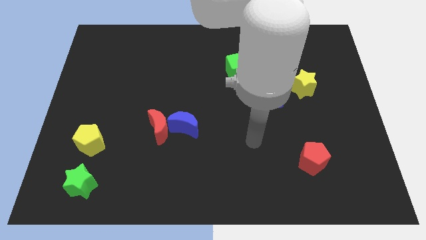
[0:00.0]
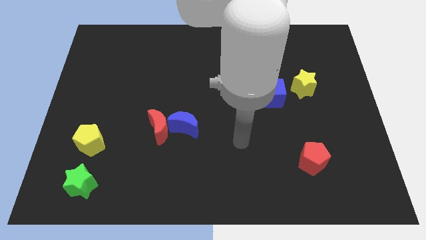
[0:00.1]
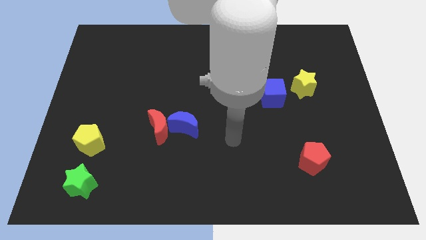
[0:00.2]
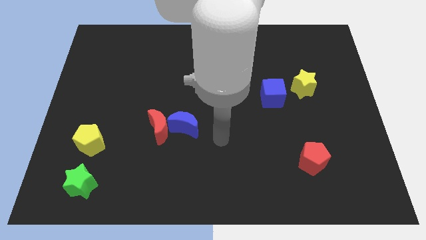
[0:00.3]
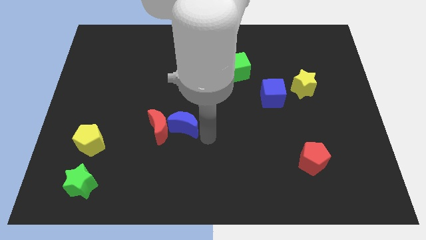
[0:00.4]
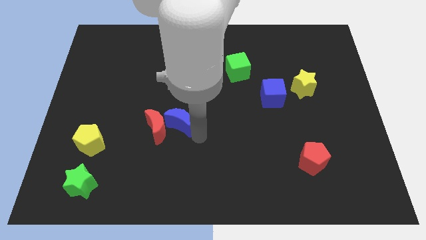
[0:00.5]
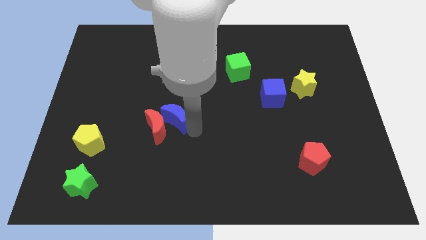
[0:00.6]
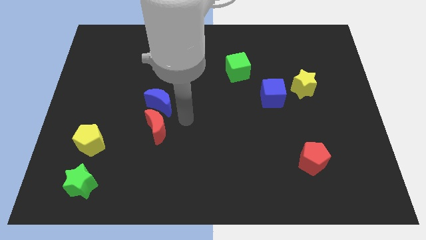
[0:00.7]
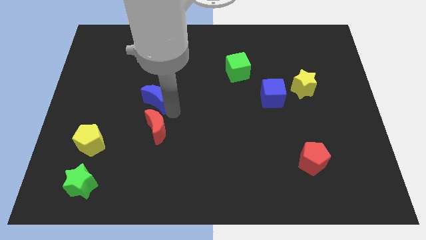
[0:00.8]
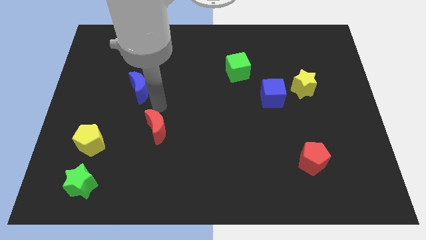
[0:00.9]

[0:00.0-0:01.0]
separate the red moon from the blue moon

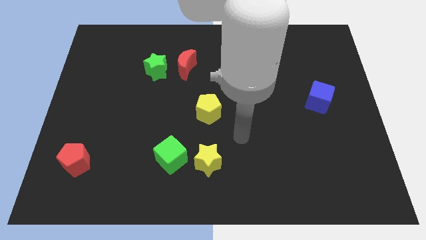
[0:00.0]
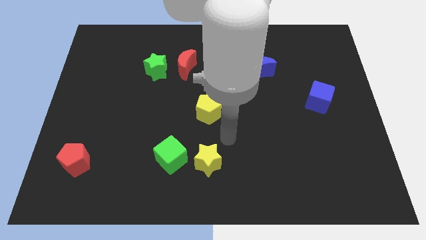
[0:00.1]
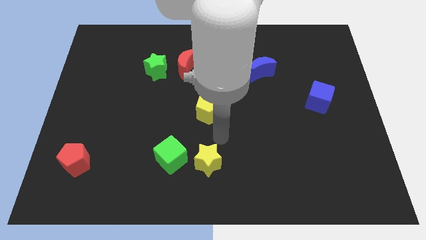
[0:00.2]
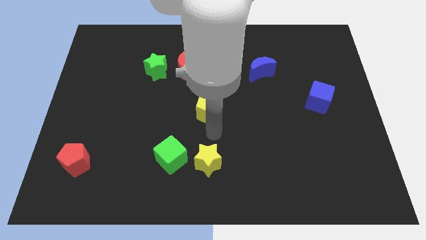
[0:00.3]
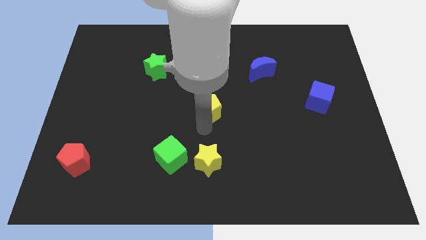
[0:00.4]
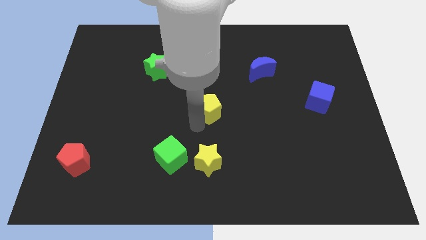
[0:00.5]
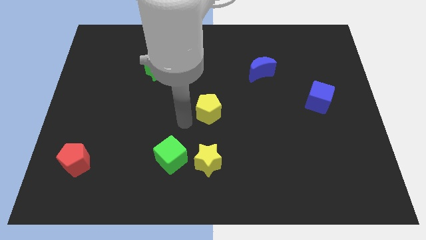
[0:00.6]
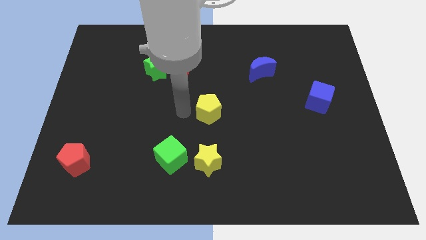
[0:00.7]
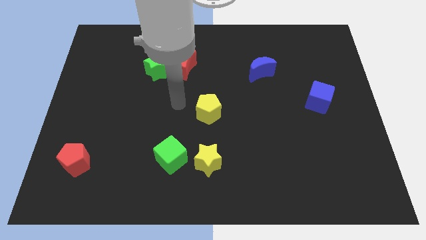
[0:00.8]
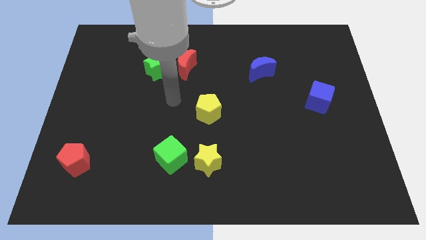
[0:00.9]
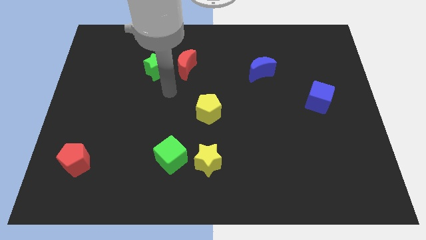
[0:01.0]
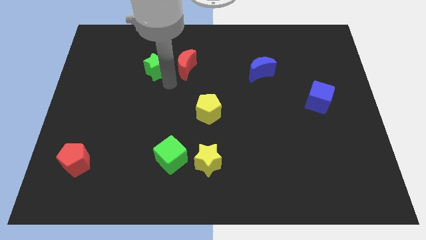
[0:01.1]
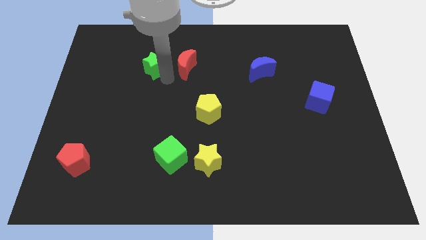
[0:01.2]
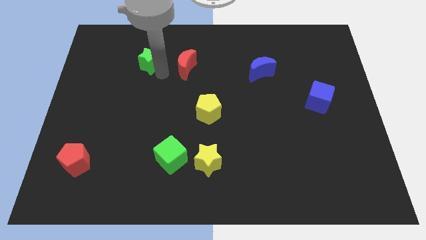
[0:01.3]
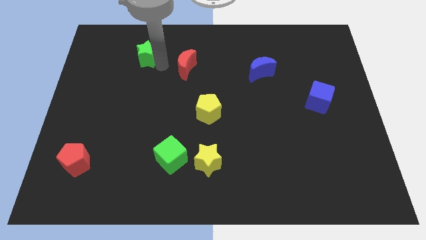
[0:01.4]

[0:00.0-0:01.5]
separate the red moon from the green star

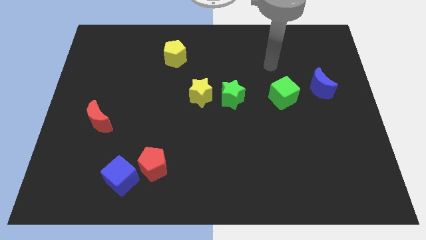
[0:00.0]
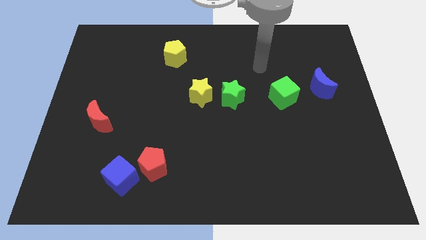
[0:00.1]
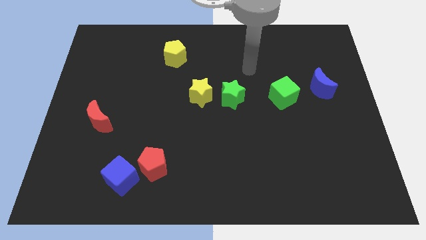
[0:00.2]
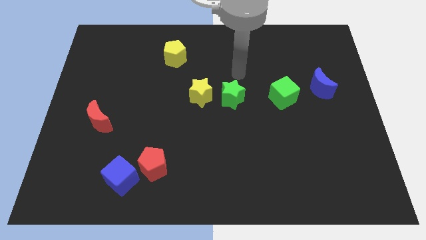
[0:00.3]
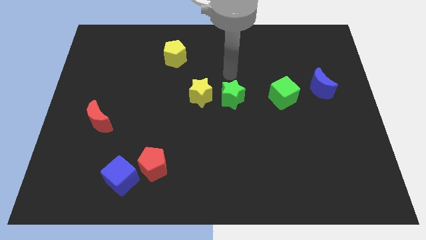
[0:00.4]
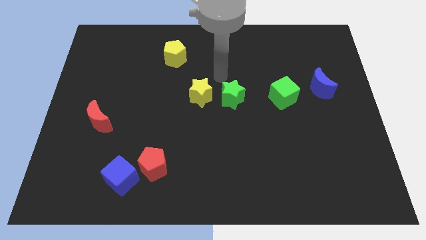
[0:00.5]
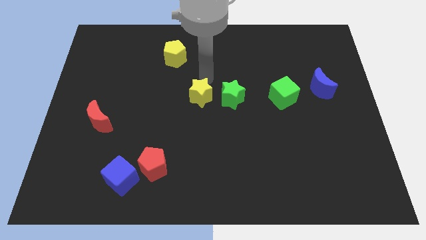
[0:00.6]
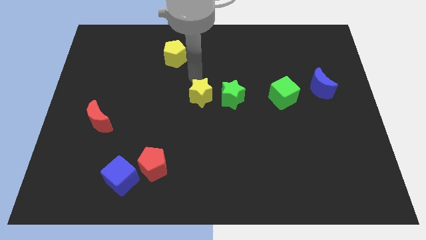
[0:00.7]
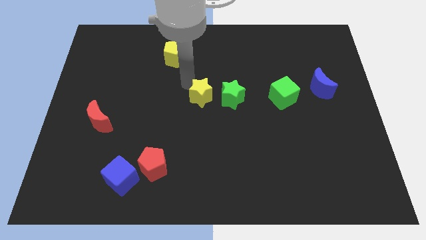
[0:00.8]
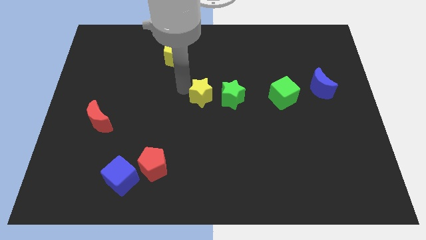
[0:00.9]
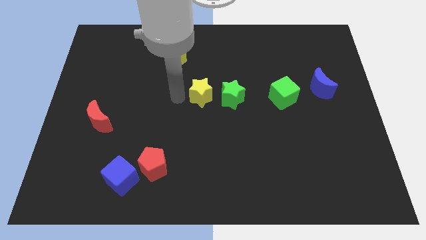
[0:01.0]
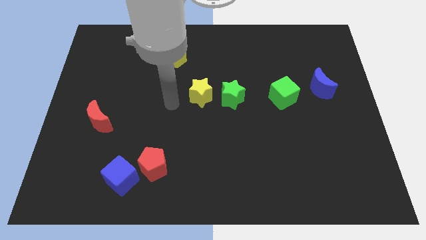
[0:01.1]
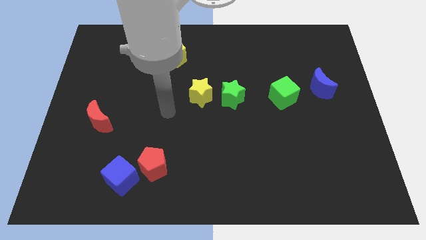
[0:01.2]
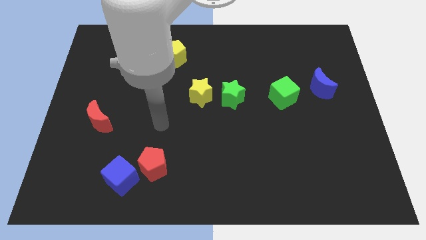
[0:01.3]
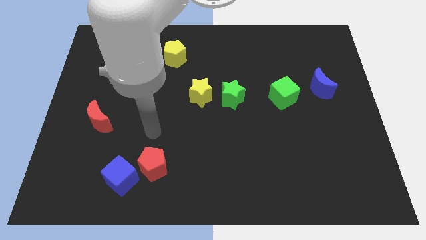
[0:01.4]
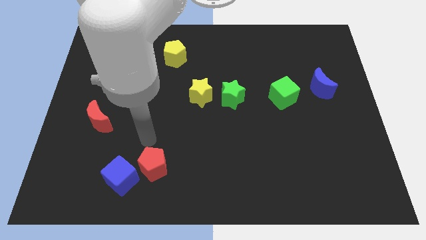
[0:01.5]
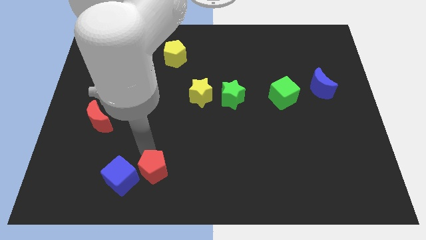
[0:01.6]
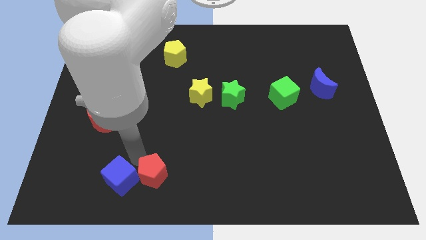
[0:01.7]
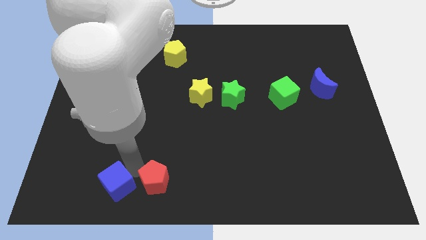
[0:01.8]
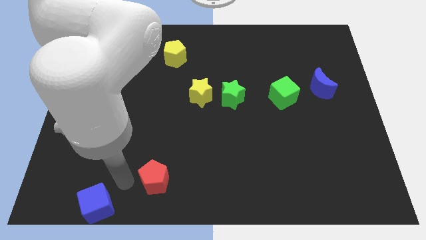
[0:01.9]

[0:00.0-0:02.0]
move the red pentagon away from the blue cube

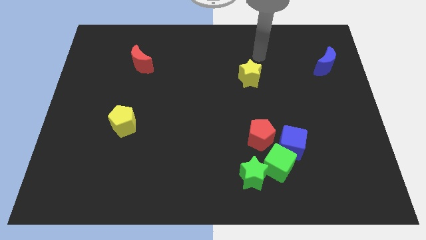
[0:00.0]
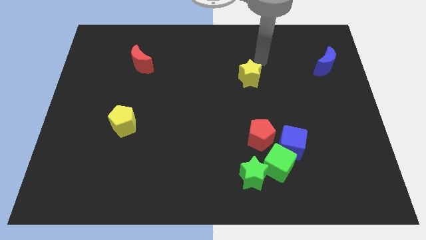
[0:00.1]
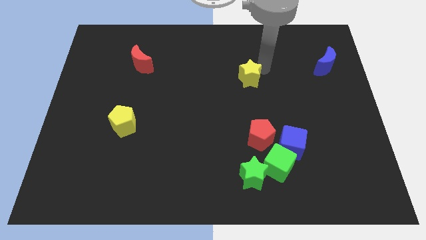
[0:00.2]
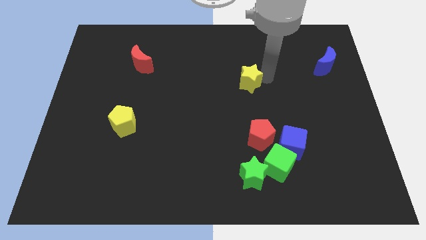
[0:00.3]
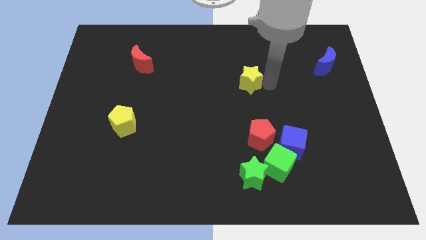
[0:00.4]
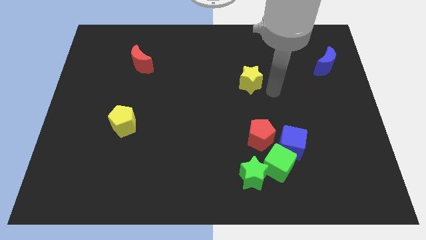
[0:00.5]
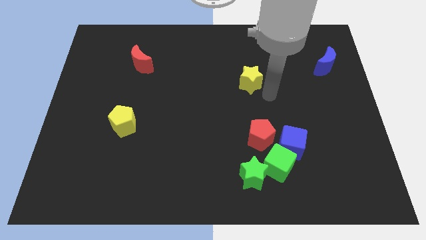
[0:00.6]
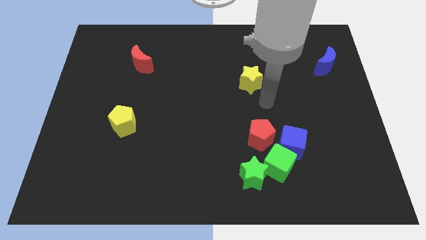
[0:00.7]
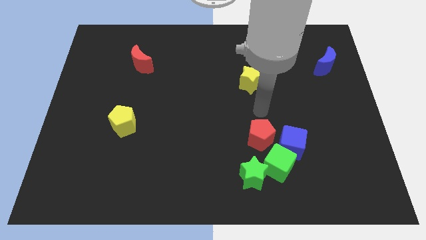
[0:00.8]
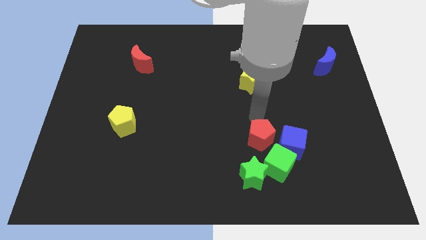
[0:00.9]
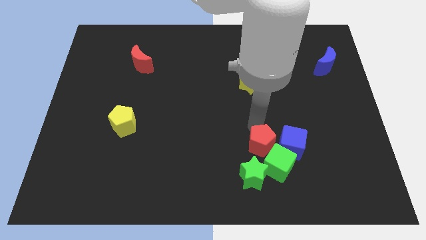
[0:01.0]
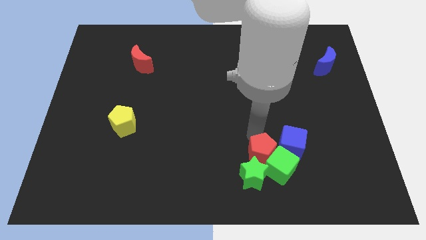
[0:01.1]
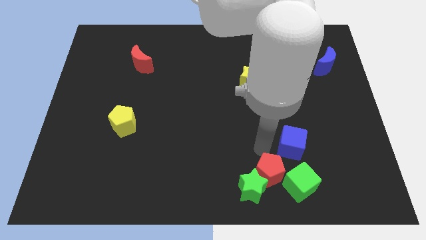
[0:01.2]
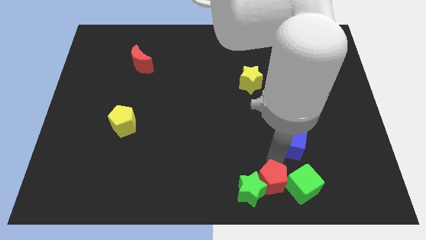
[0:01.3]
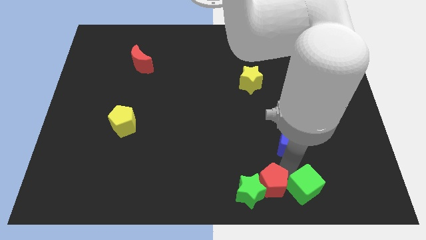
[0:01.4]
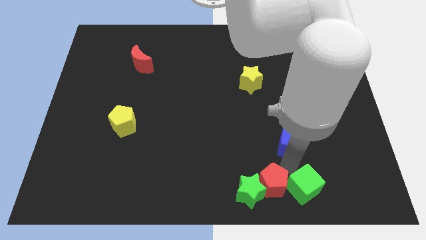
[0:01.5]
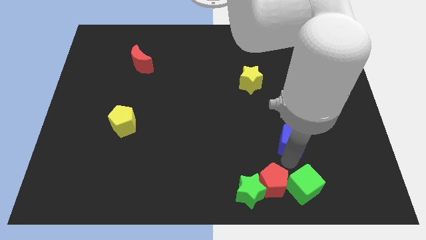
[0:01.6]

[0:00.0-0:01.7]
separate the blue cube from the green cube and red pentagon

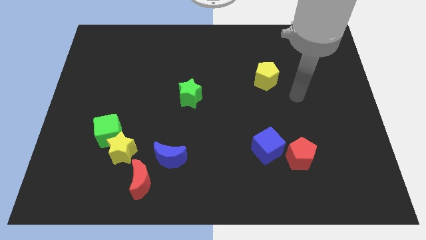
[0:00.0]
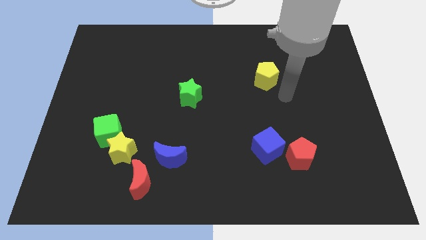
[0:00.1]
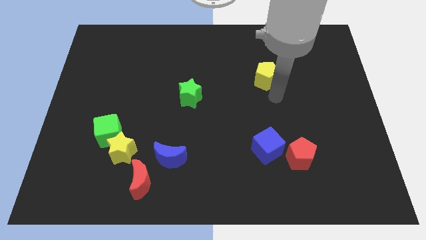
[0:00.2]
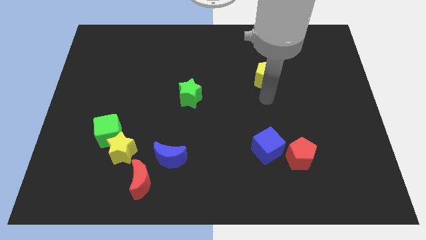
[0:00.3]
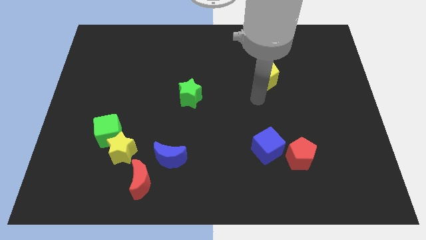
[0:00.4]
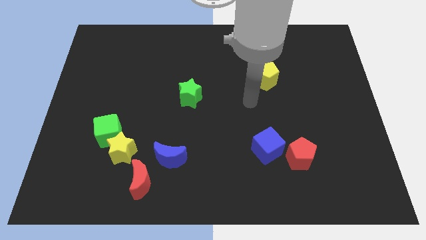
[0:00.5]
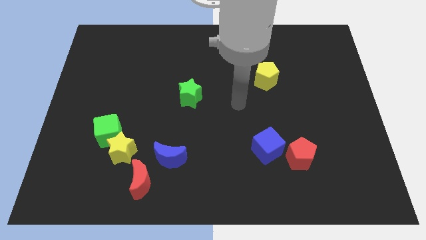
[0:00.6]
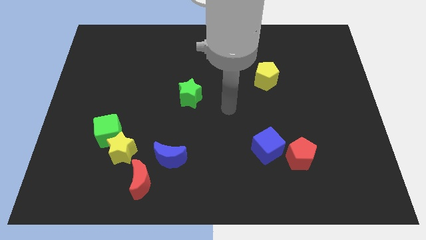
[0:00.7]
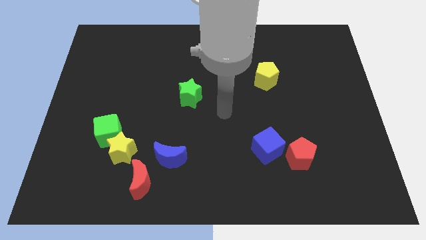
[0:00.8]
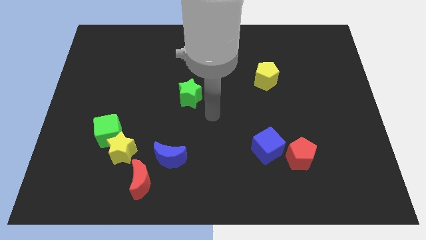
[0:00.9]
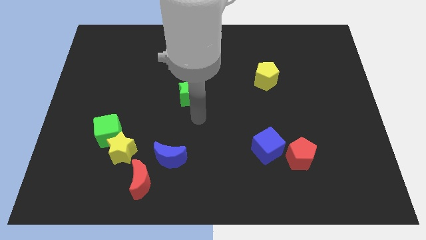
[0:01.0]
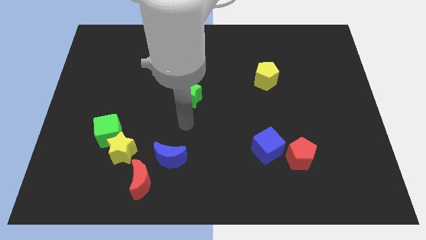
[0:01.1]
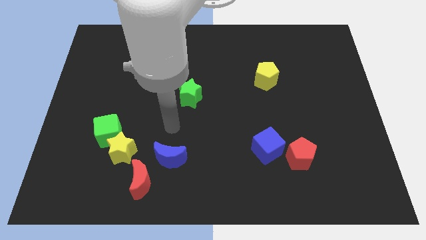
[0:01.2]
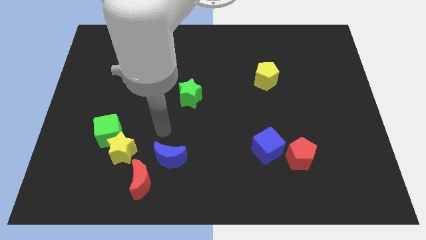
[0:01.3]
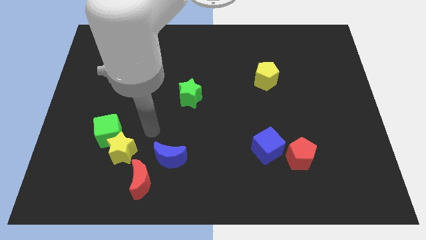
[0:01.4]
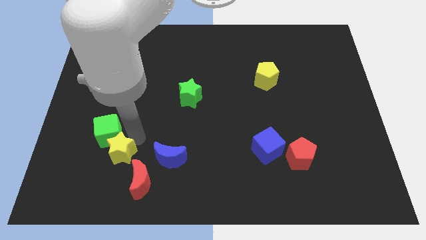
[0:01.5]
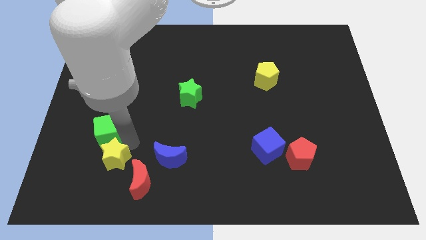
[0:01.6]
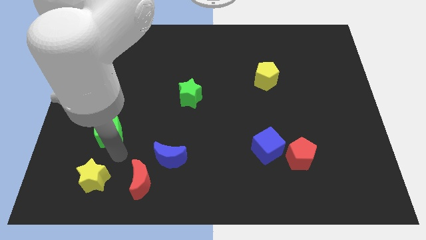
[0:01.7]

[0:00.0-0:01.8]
pull the green cube apart from the yellow star

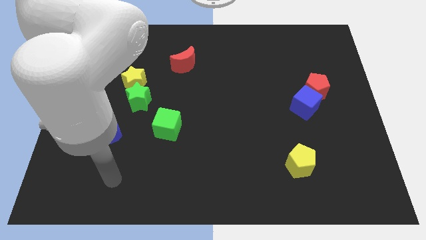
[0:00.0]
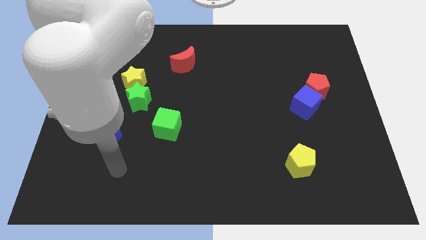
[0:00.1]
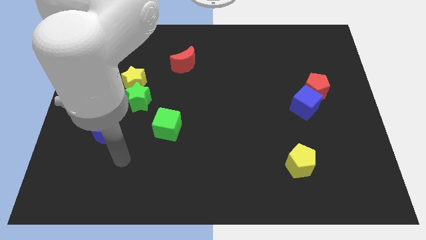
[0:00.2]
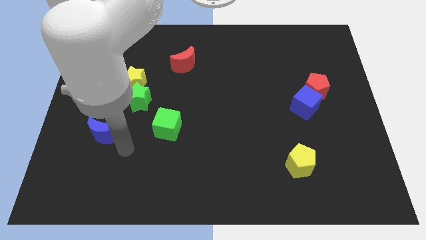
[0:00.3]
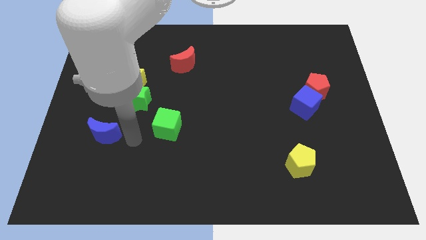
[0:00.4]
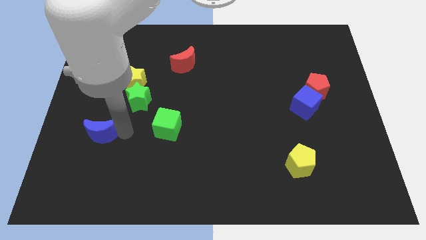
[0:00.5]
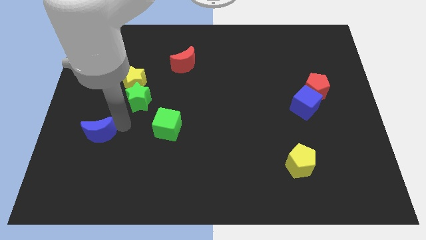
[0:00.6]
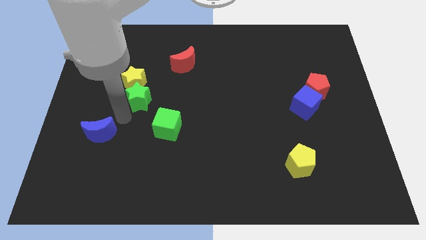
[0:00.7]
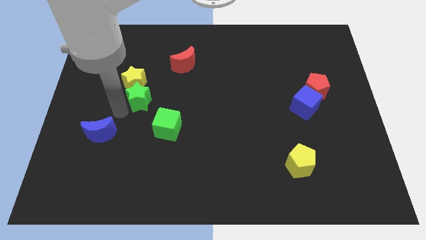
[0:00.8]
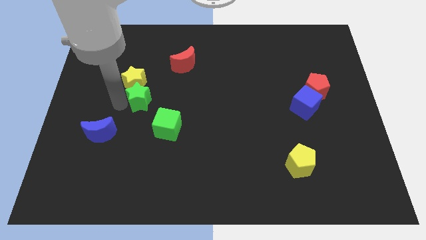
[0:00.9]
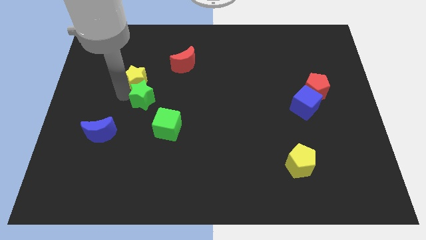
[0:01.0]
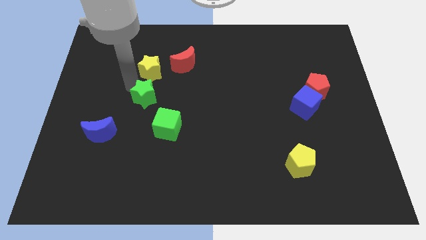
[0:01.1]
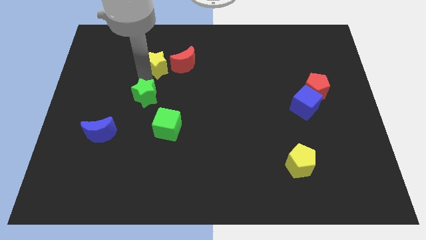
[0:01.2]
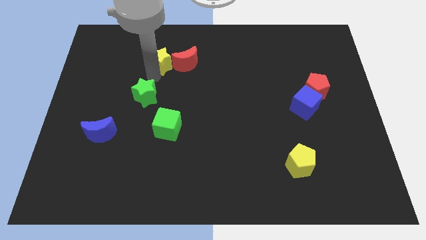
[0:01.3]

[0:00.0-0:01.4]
separate the green star from the yellow star
